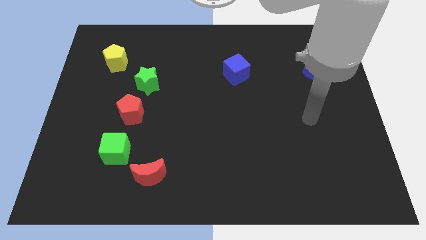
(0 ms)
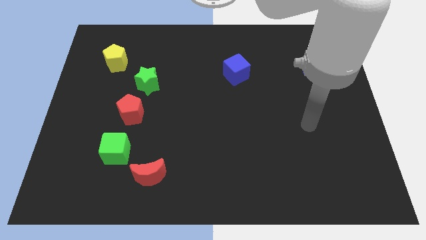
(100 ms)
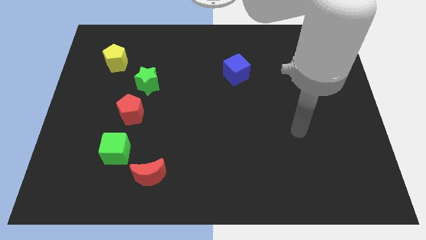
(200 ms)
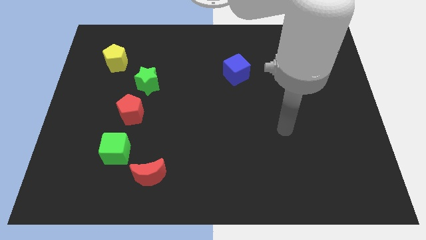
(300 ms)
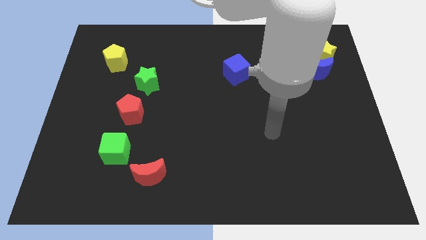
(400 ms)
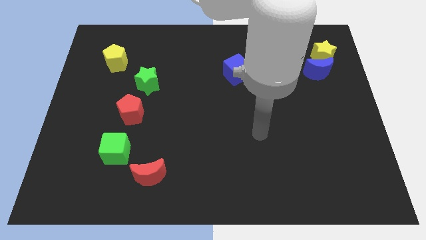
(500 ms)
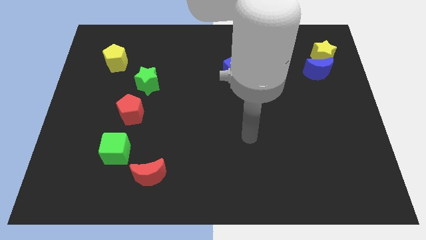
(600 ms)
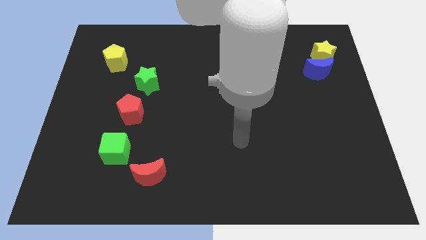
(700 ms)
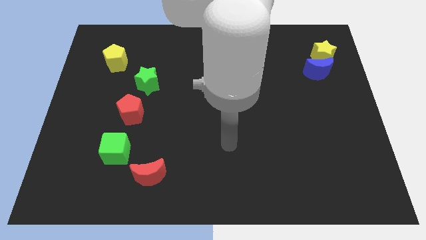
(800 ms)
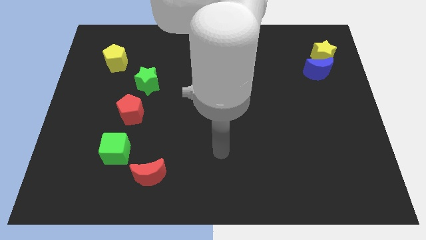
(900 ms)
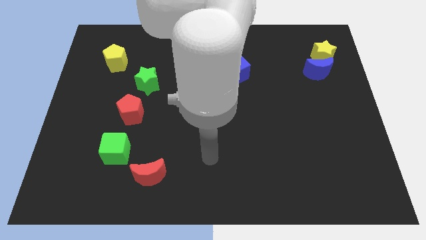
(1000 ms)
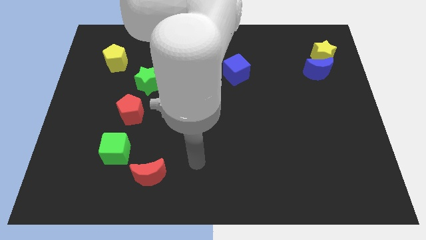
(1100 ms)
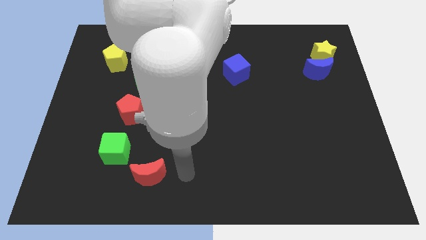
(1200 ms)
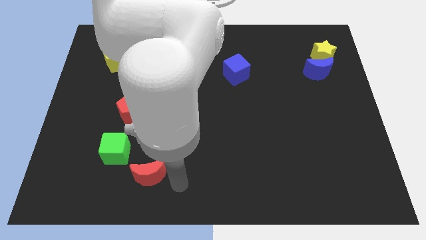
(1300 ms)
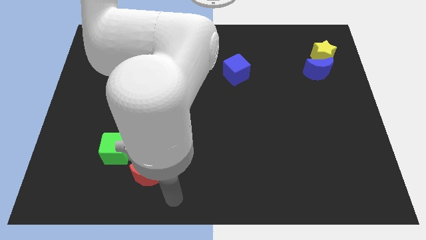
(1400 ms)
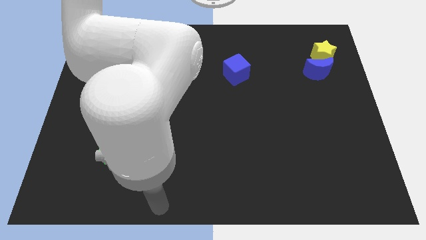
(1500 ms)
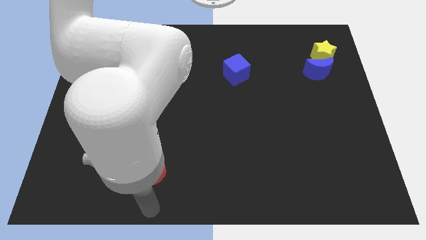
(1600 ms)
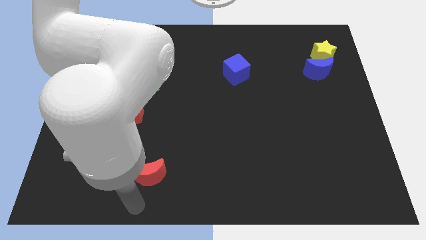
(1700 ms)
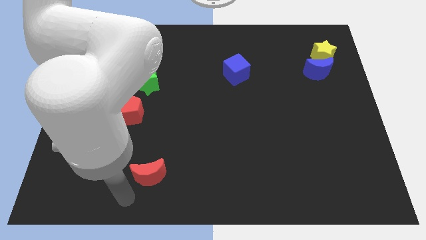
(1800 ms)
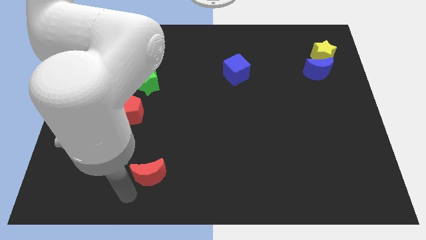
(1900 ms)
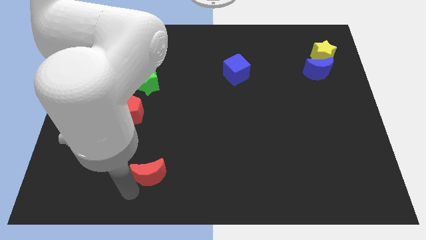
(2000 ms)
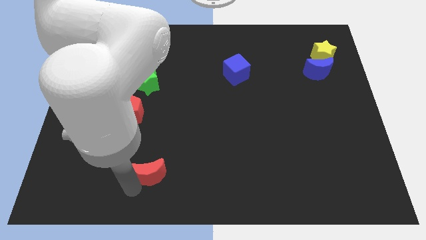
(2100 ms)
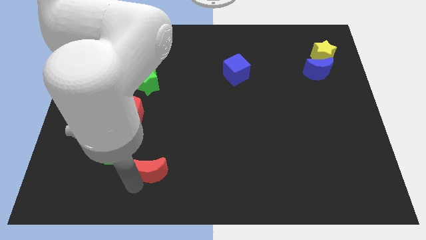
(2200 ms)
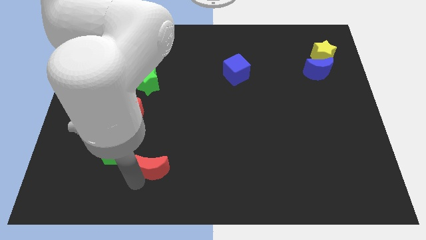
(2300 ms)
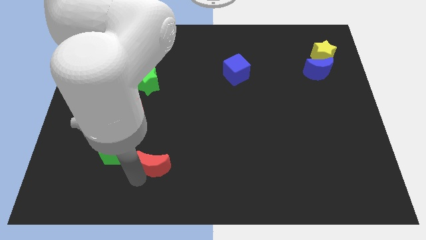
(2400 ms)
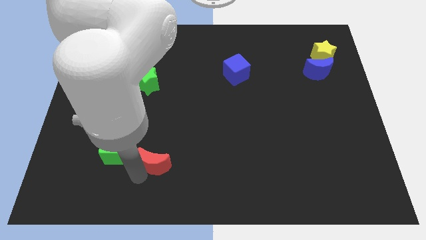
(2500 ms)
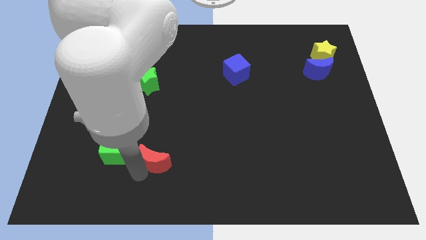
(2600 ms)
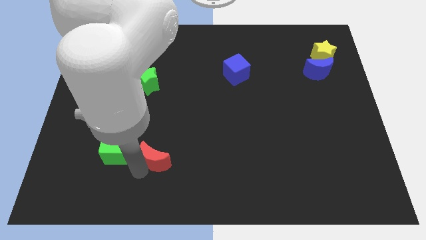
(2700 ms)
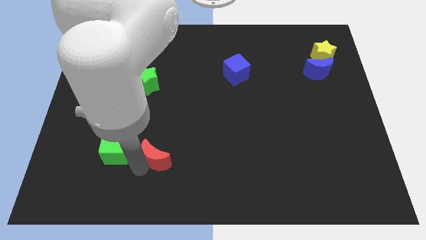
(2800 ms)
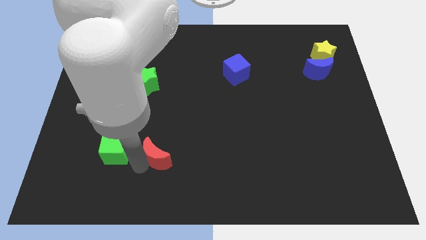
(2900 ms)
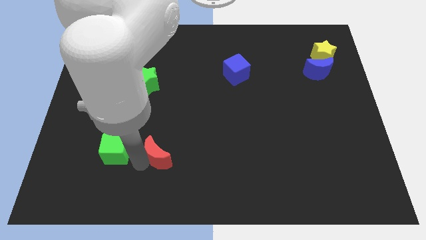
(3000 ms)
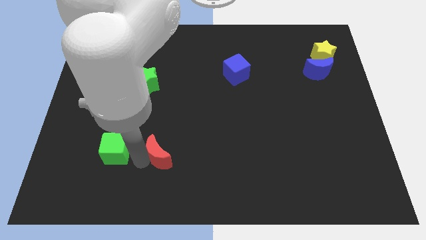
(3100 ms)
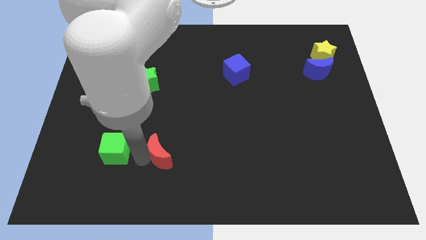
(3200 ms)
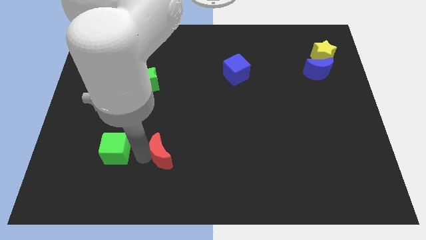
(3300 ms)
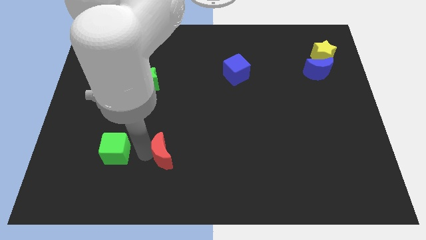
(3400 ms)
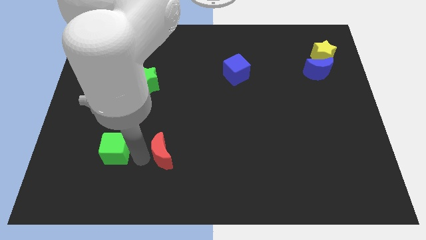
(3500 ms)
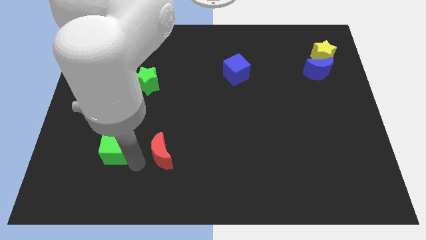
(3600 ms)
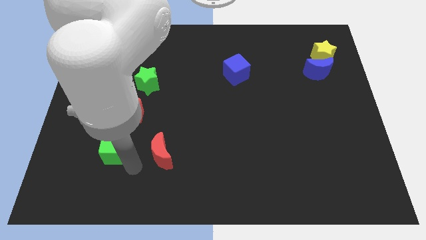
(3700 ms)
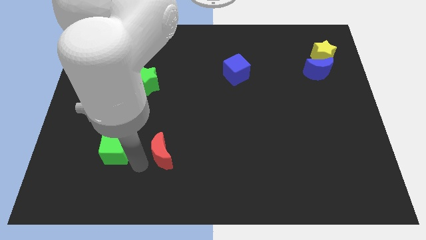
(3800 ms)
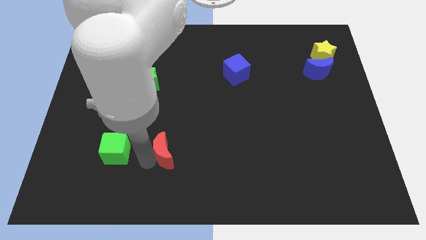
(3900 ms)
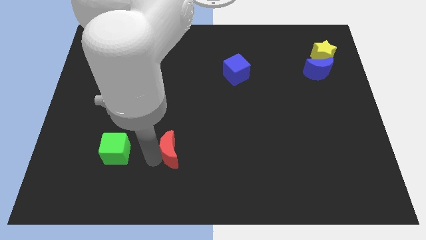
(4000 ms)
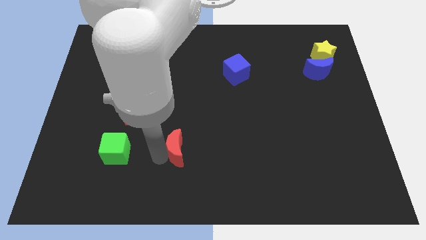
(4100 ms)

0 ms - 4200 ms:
slide the red moon upwards and right a bit

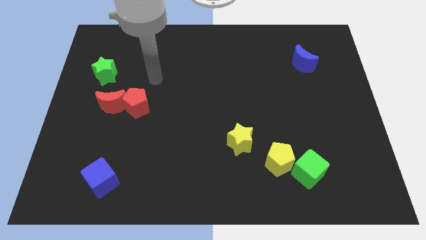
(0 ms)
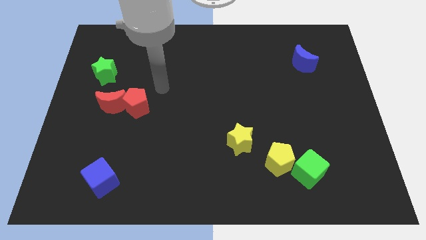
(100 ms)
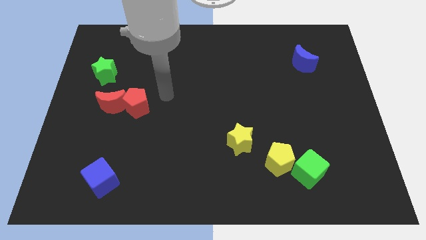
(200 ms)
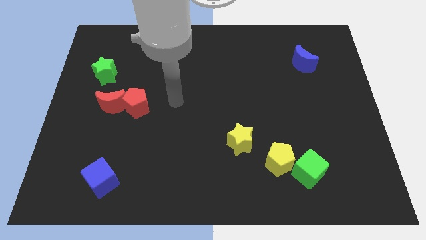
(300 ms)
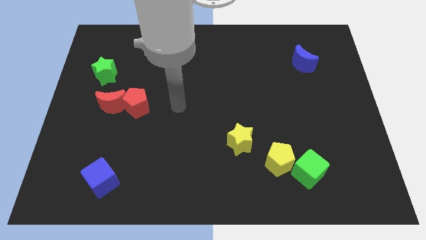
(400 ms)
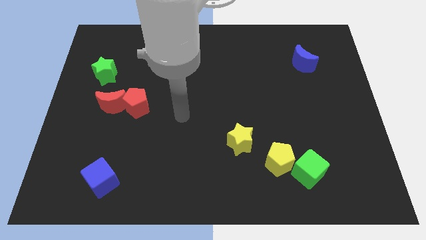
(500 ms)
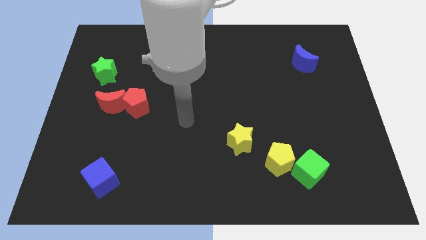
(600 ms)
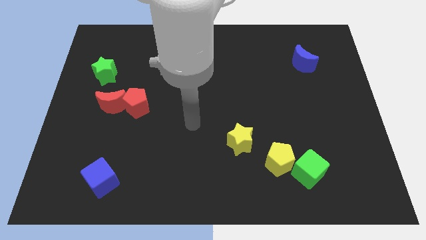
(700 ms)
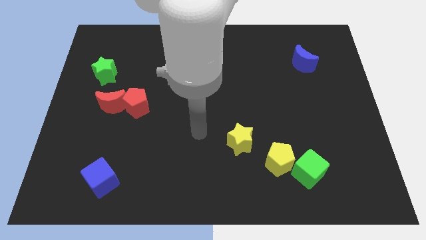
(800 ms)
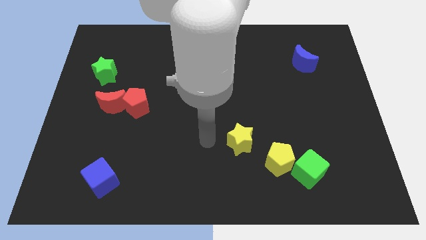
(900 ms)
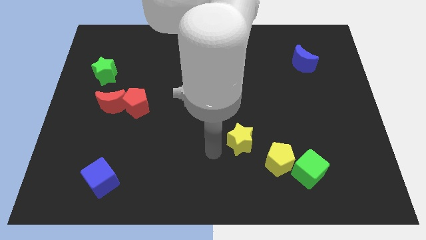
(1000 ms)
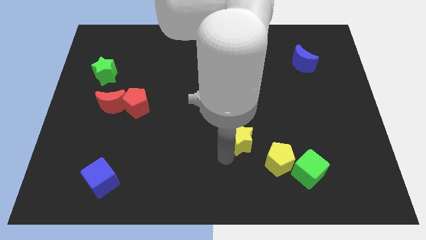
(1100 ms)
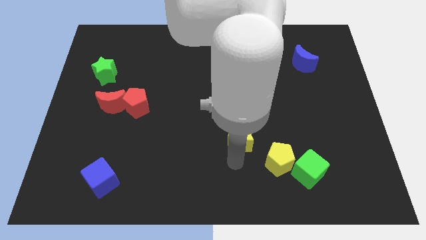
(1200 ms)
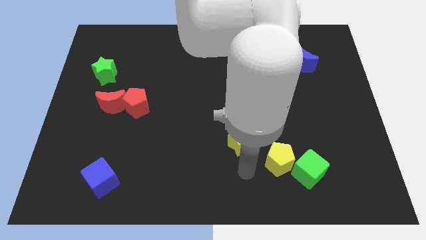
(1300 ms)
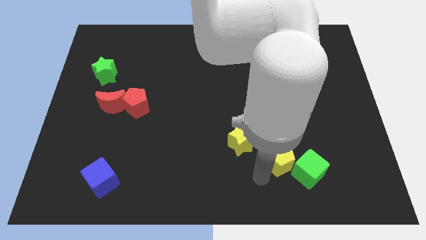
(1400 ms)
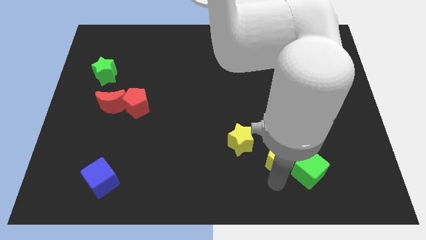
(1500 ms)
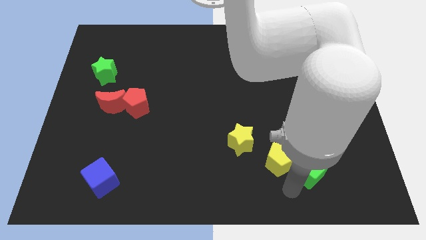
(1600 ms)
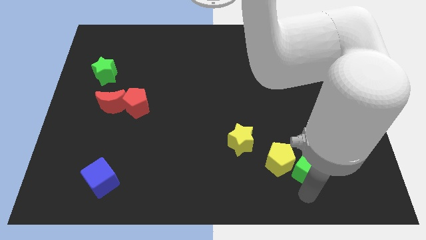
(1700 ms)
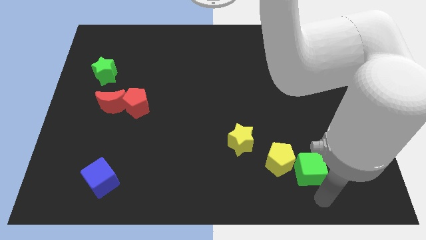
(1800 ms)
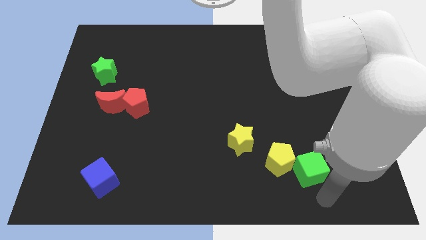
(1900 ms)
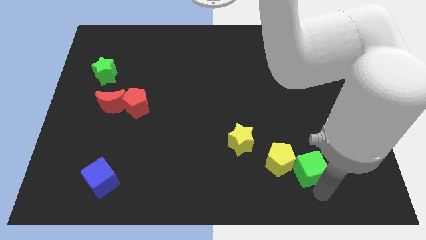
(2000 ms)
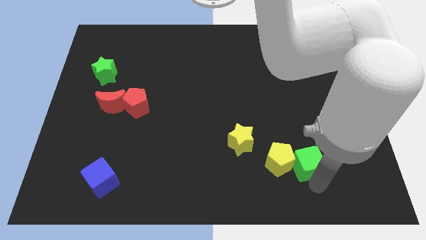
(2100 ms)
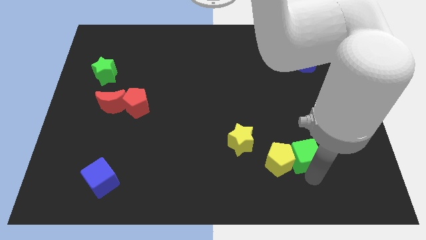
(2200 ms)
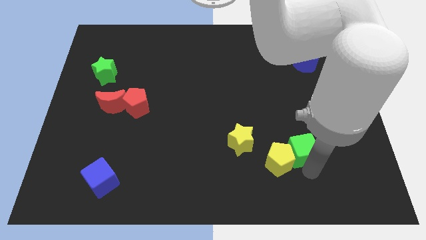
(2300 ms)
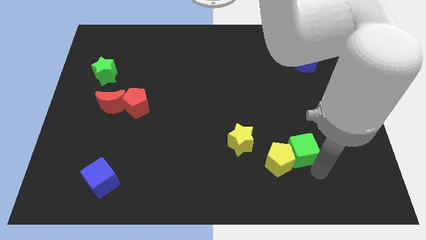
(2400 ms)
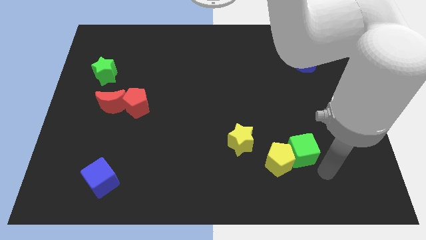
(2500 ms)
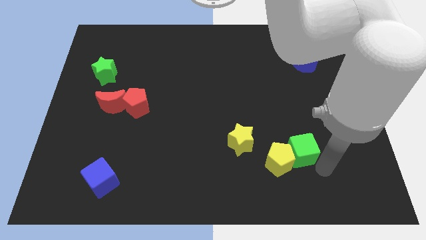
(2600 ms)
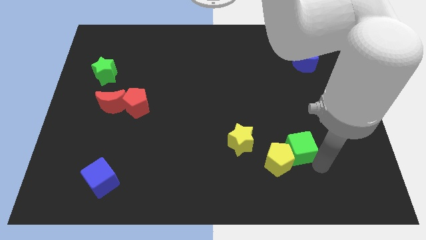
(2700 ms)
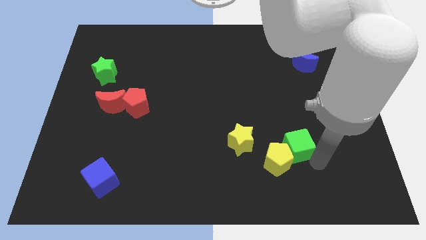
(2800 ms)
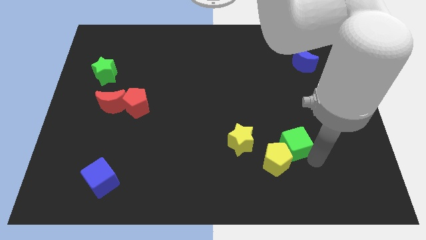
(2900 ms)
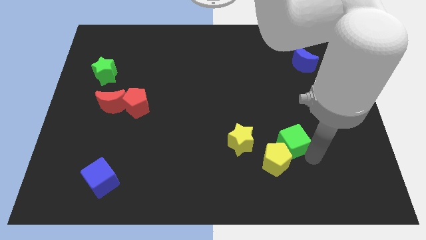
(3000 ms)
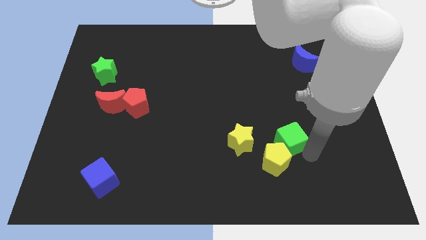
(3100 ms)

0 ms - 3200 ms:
push the green cube upwards and left a little

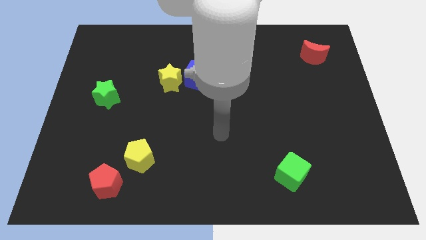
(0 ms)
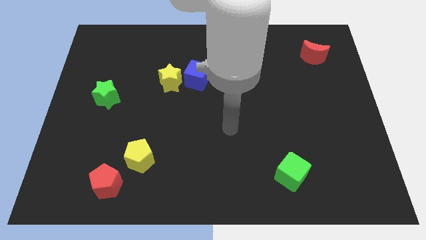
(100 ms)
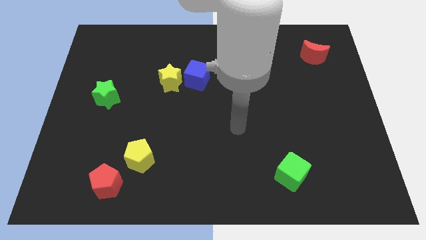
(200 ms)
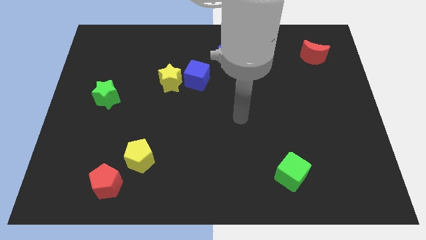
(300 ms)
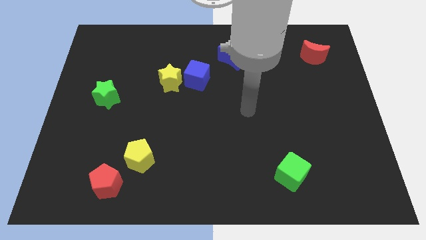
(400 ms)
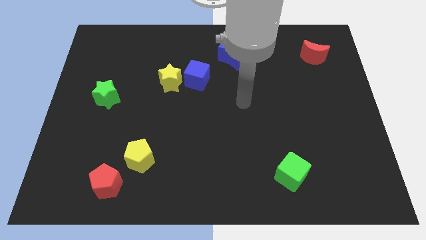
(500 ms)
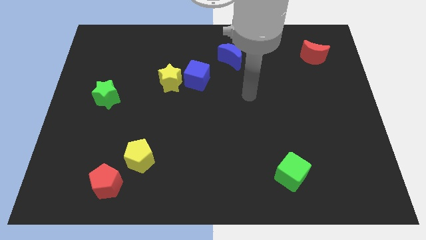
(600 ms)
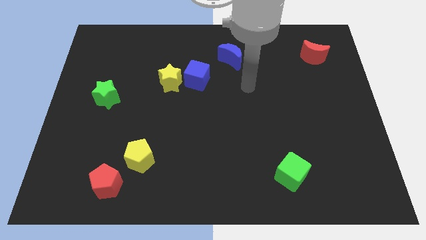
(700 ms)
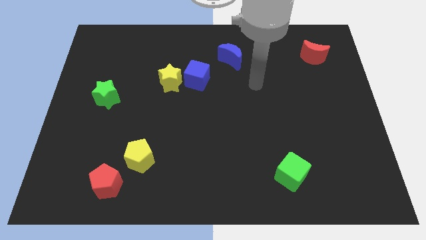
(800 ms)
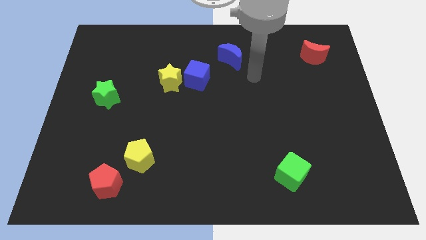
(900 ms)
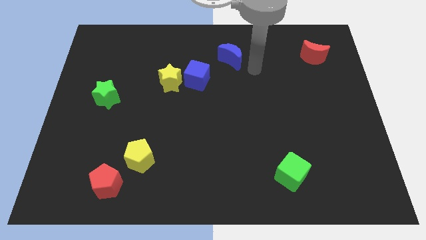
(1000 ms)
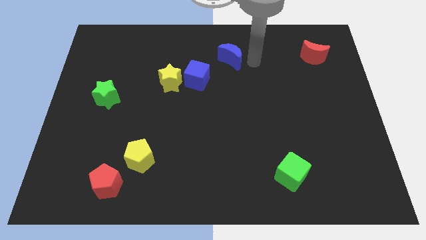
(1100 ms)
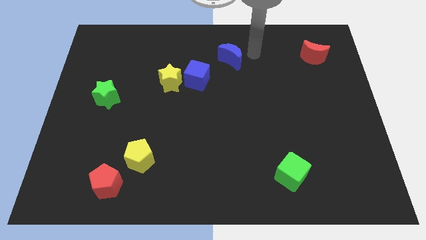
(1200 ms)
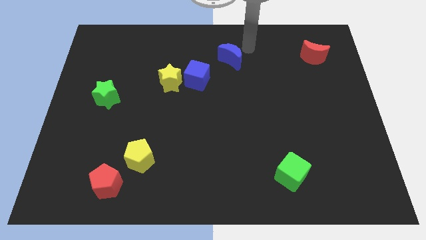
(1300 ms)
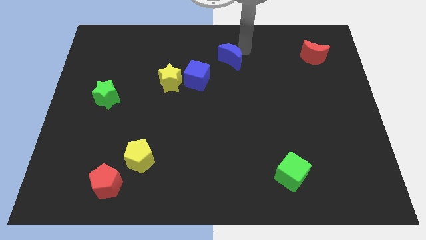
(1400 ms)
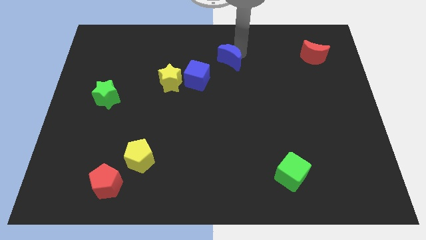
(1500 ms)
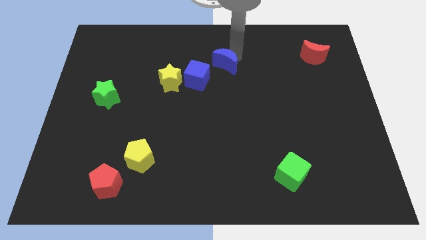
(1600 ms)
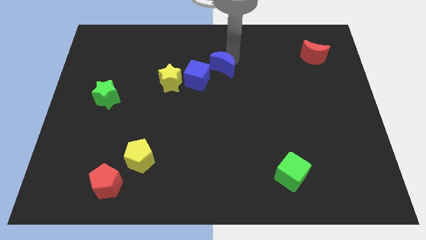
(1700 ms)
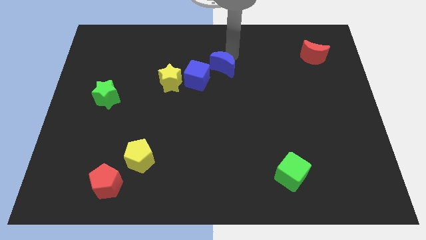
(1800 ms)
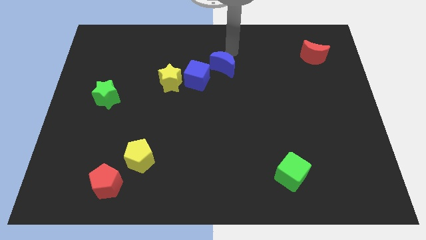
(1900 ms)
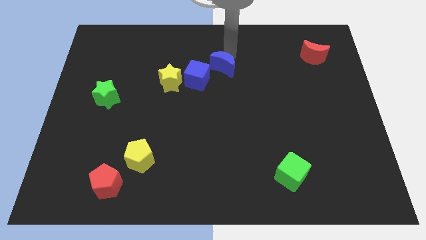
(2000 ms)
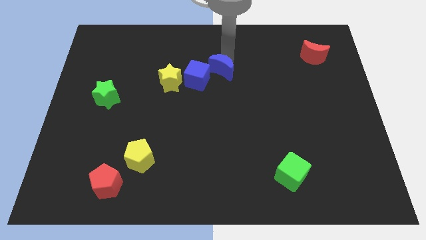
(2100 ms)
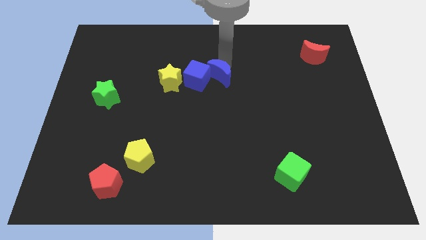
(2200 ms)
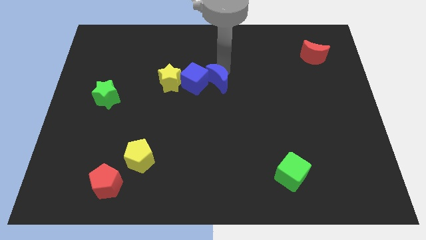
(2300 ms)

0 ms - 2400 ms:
slightly move the blue moon down and left diagonally
